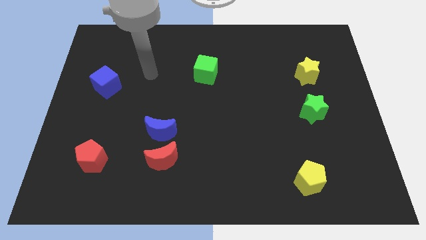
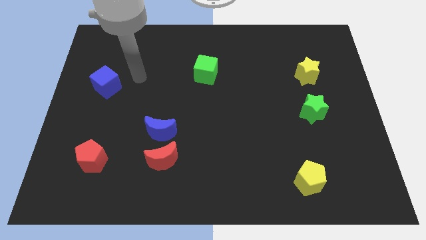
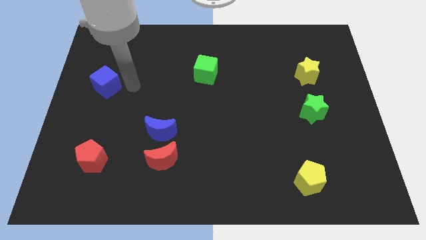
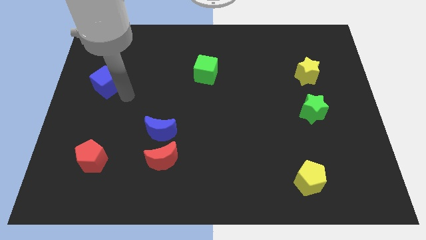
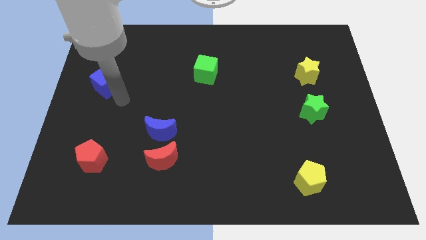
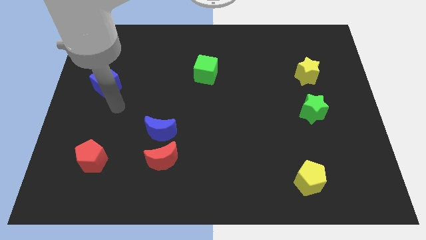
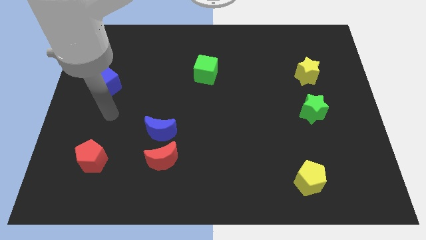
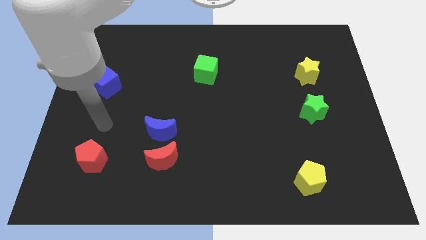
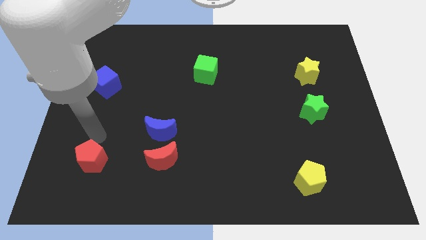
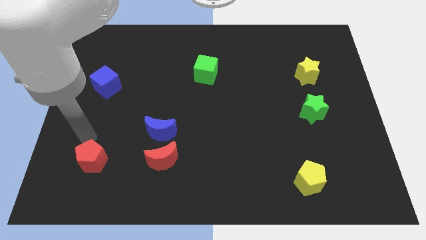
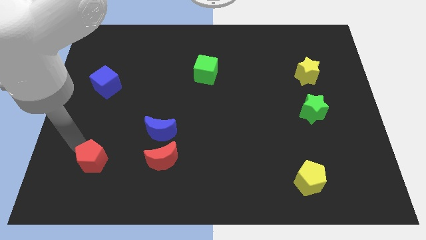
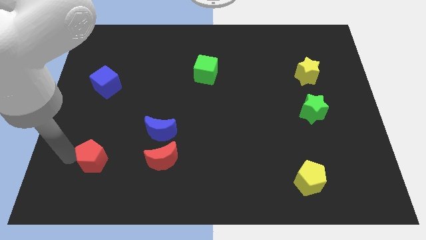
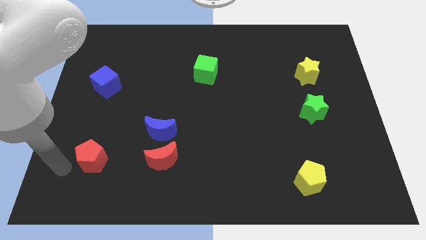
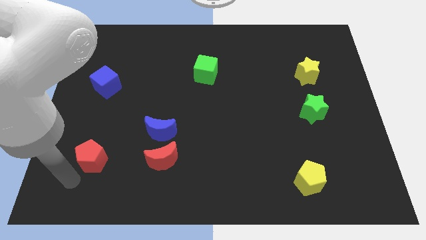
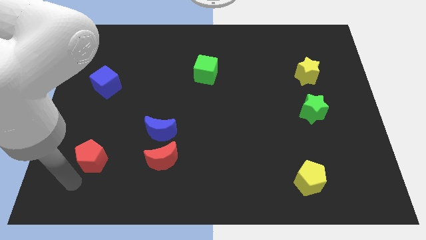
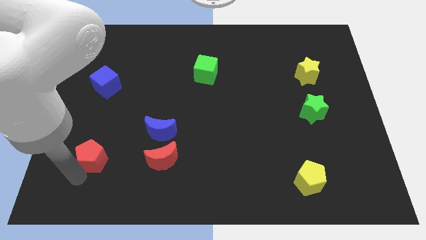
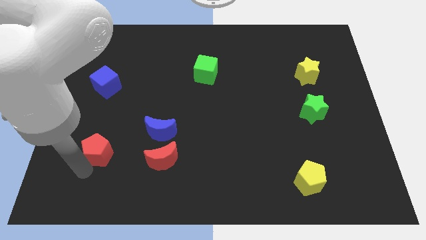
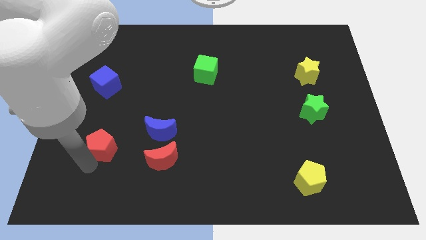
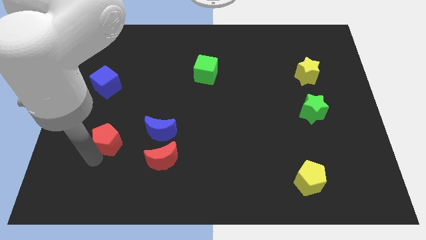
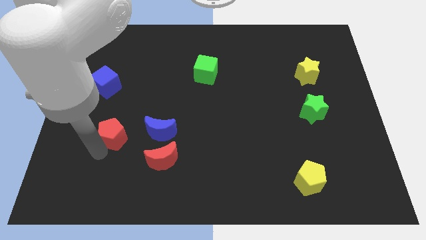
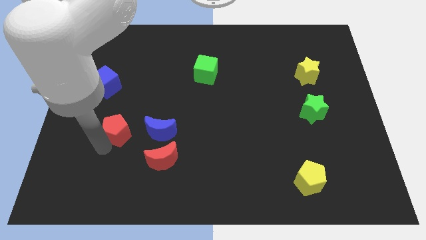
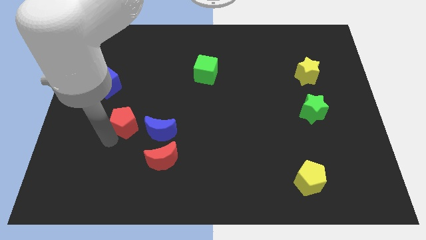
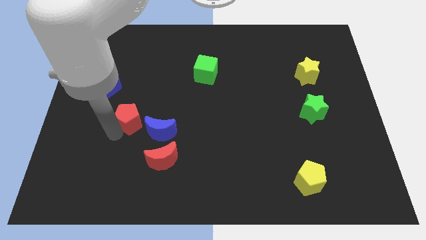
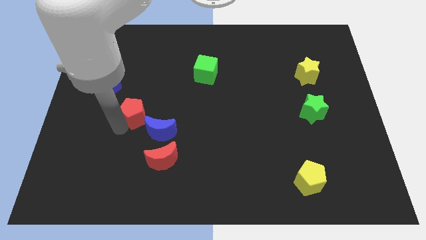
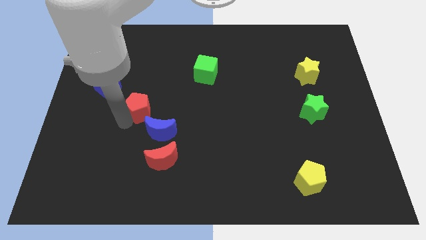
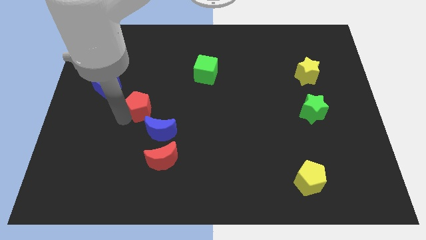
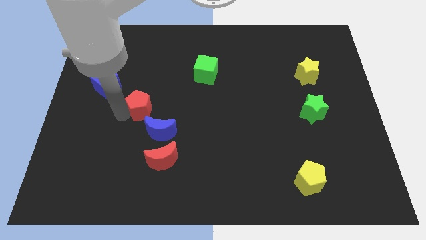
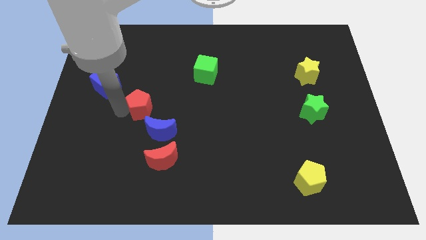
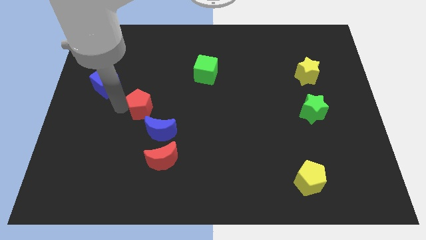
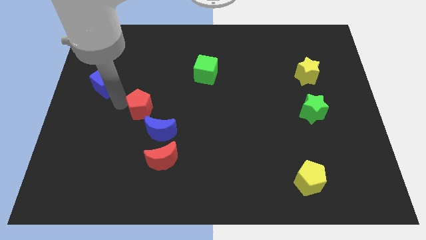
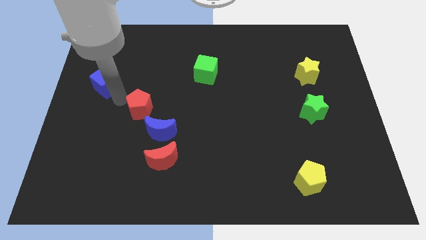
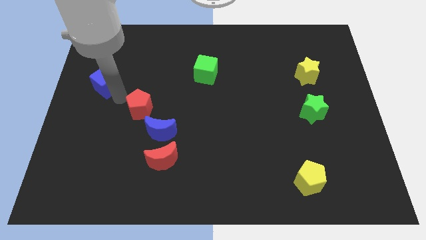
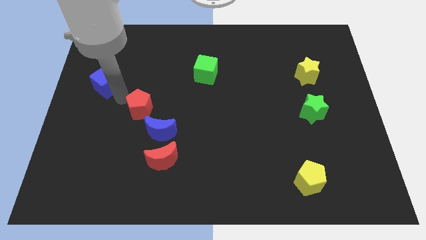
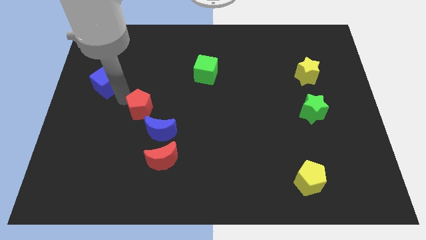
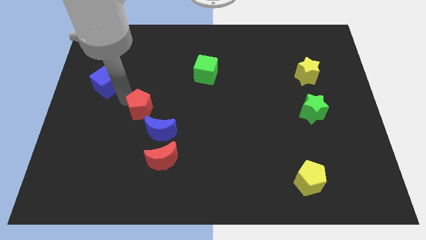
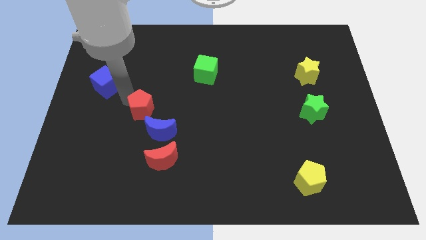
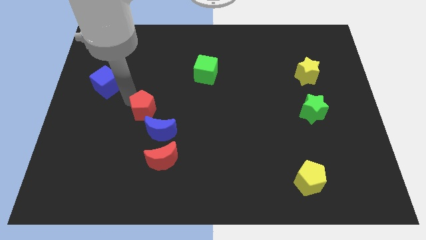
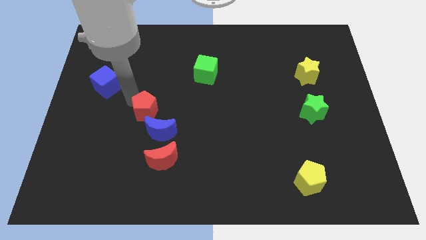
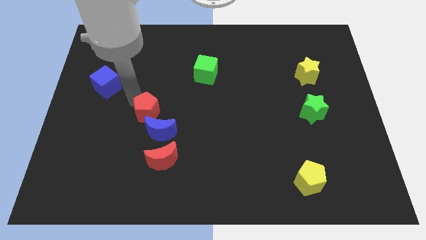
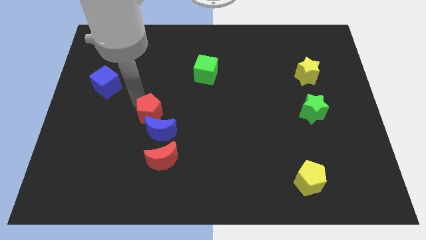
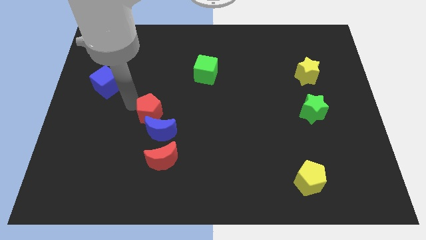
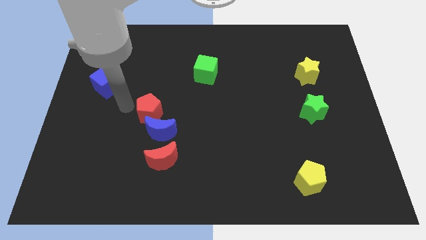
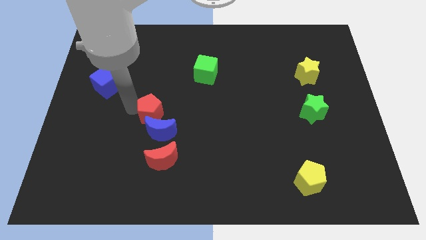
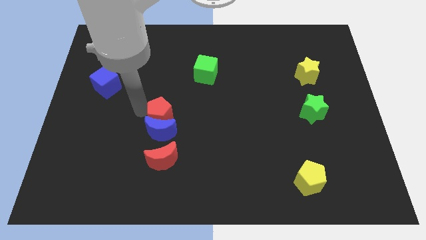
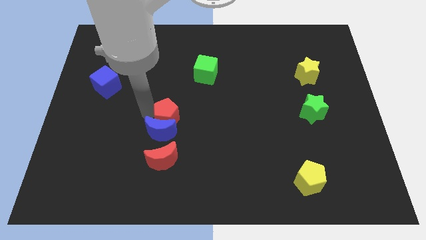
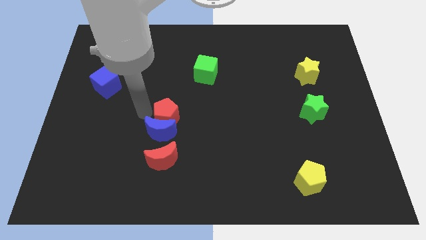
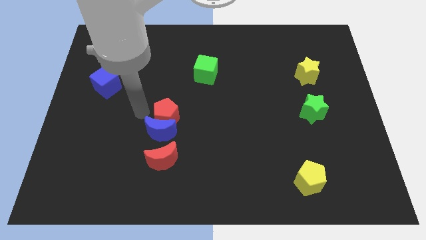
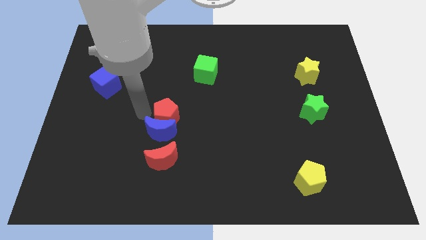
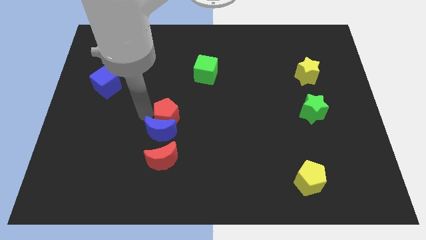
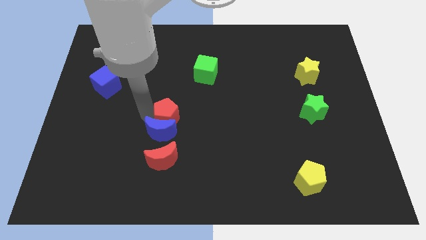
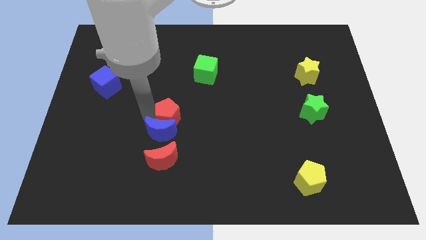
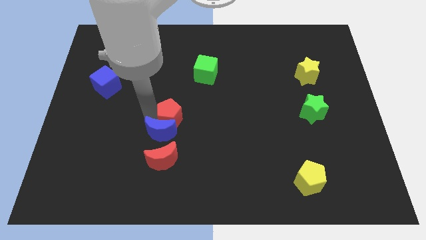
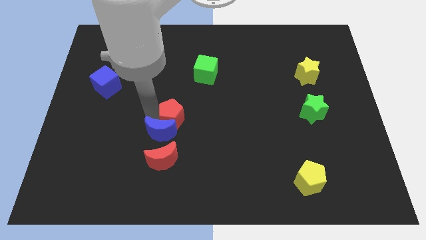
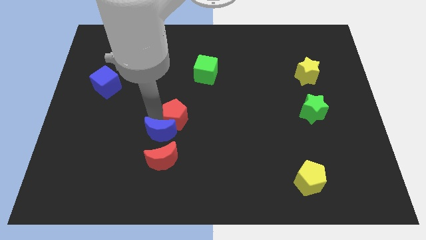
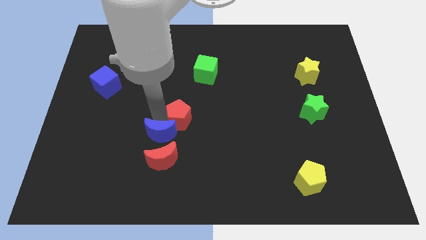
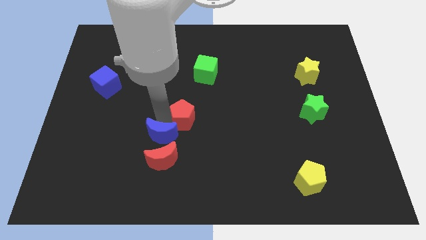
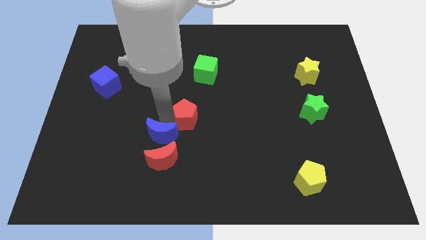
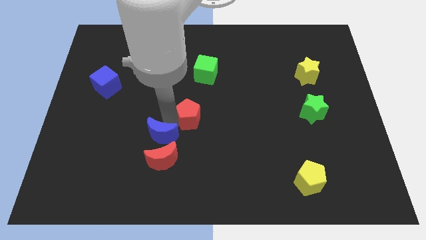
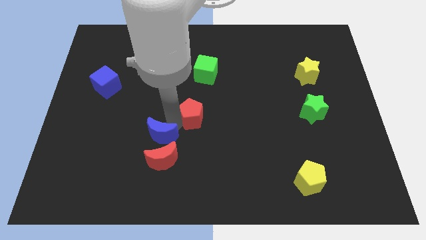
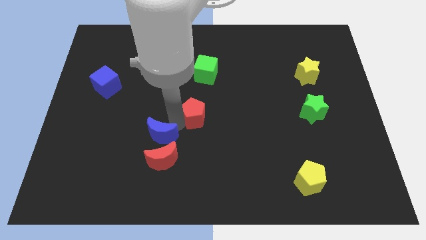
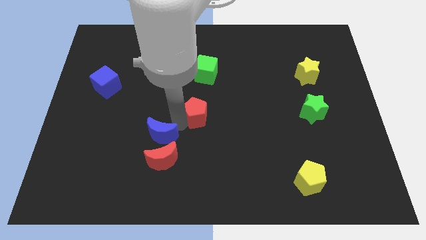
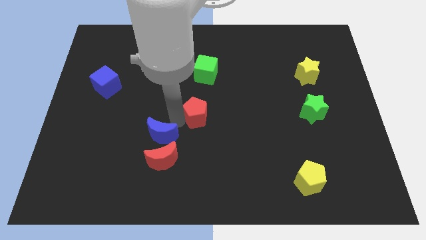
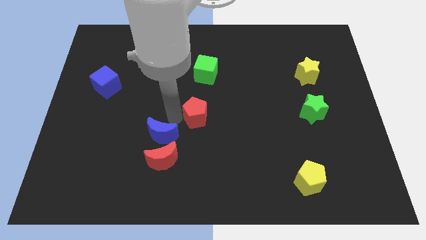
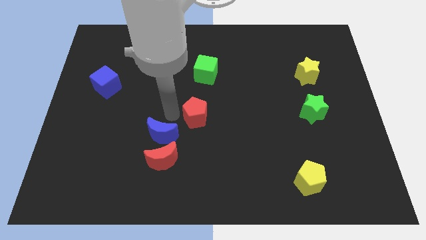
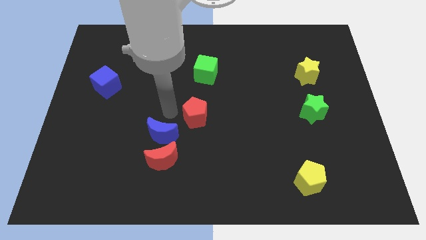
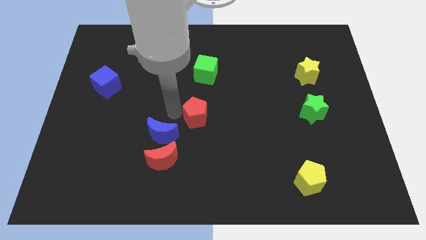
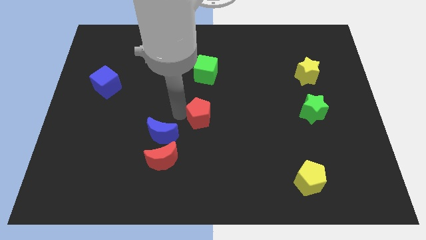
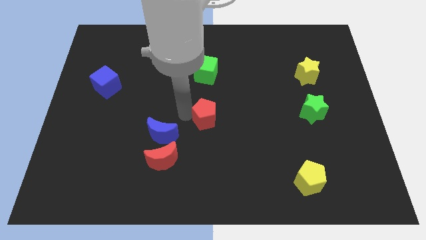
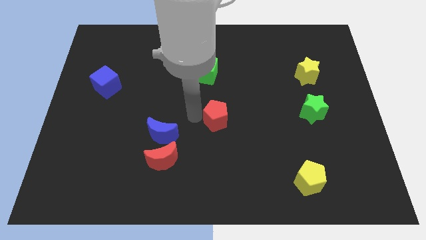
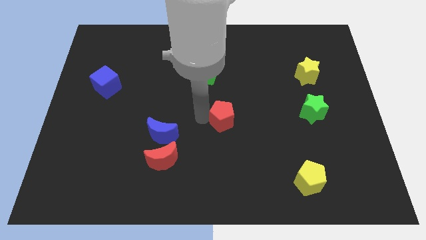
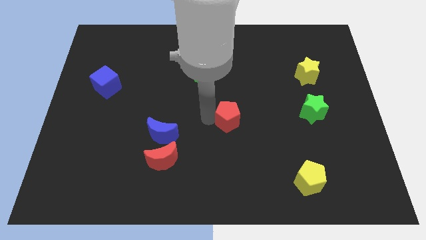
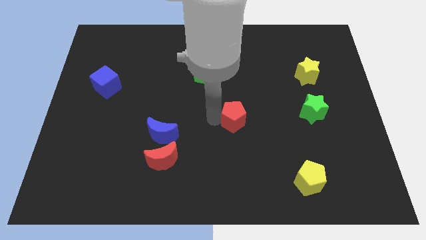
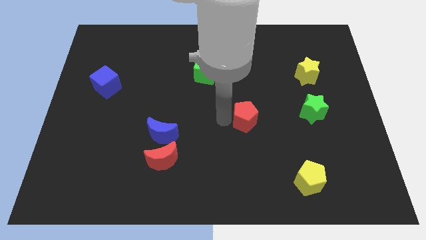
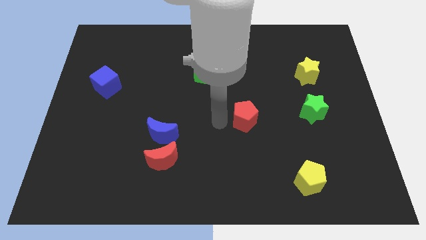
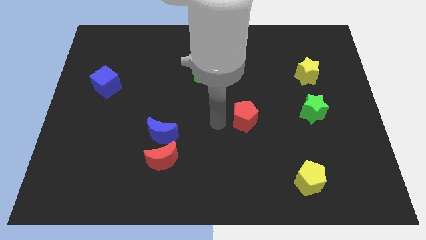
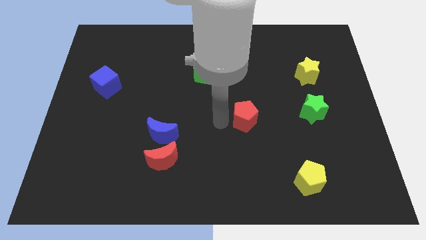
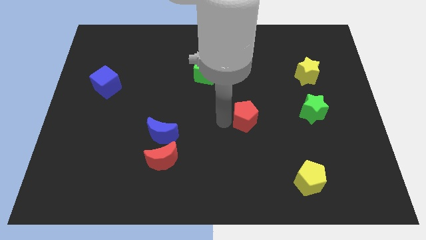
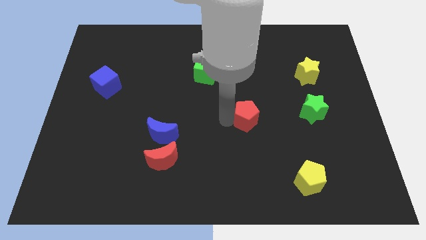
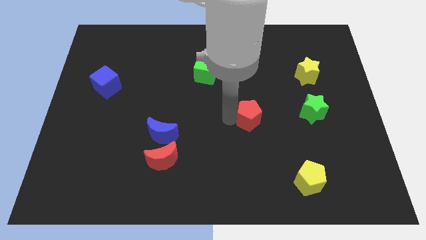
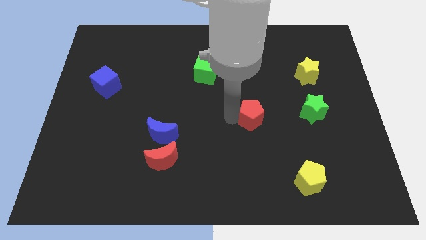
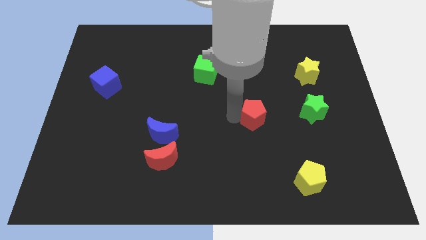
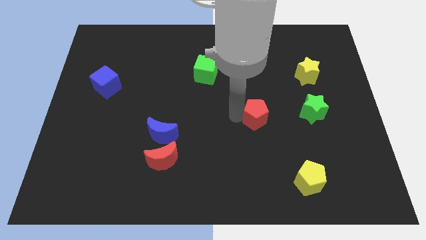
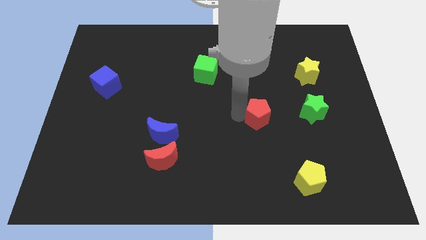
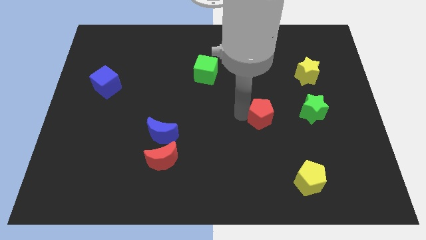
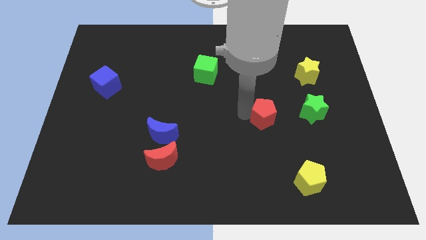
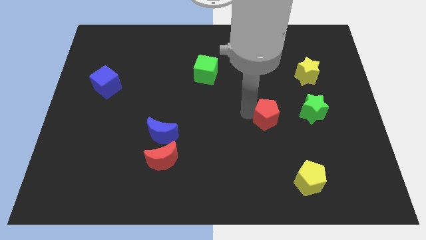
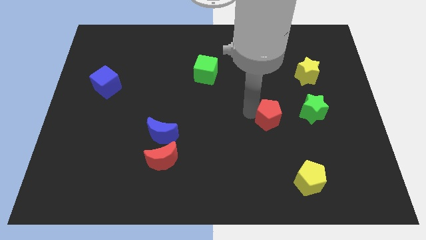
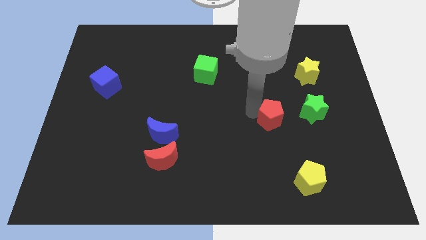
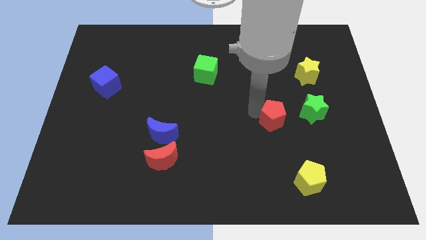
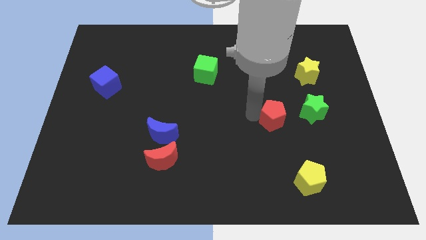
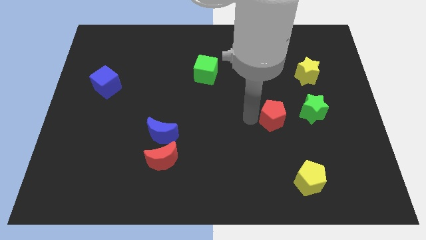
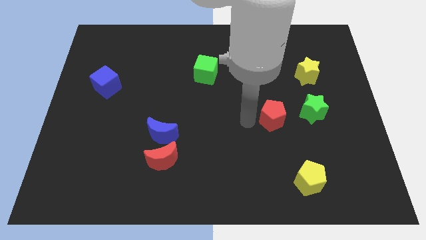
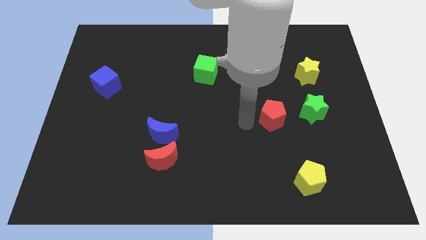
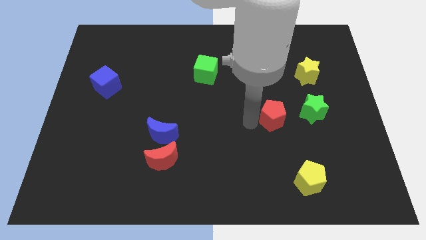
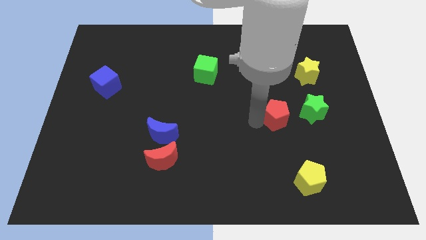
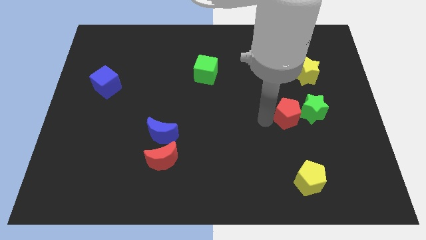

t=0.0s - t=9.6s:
slide the red pentagon next to the green star
